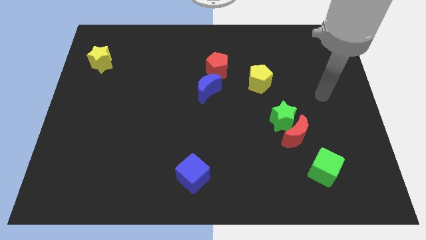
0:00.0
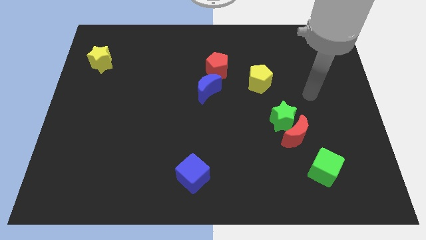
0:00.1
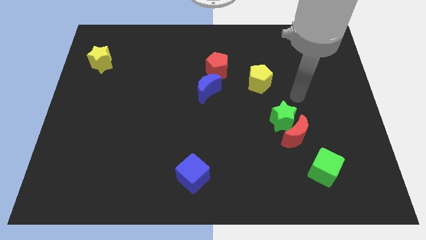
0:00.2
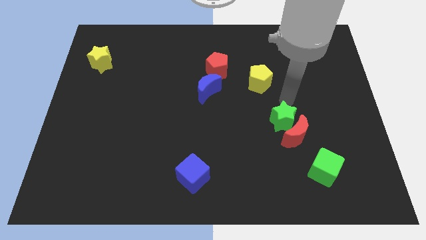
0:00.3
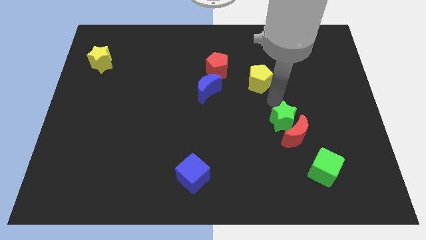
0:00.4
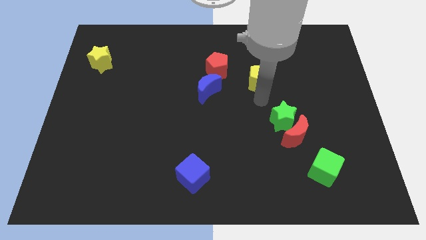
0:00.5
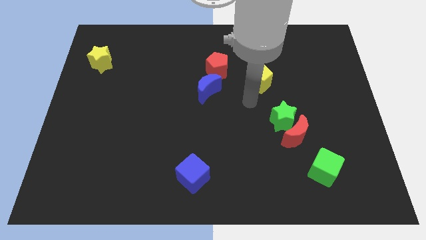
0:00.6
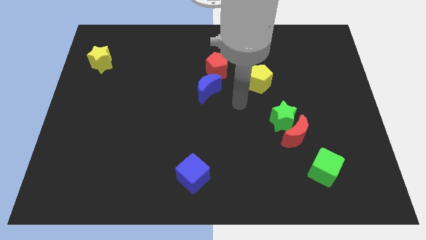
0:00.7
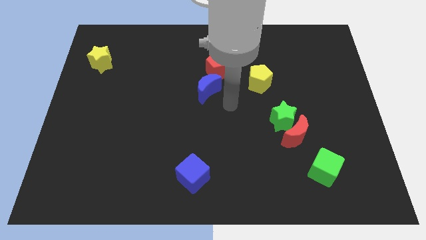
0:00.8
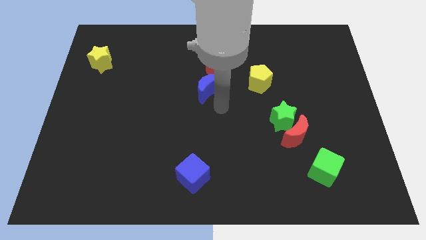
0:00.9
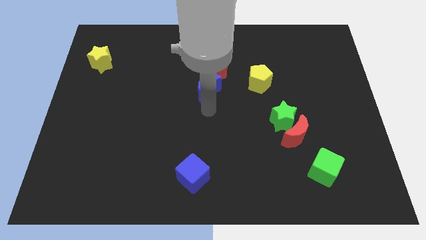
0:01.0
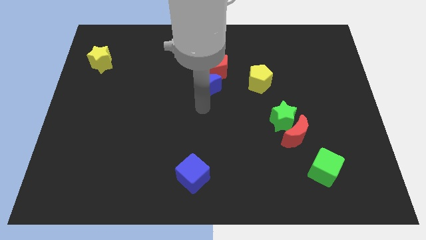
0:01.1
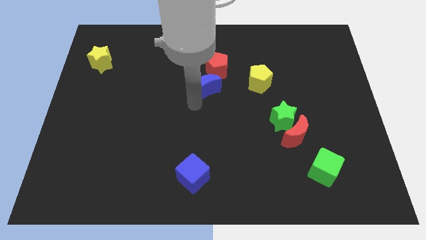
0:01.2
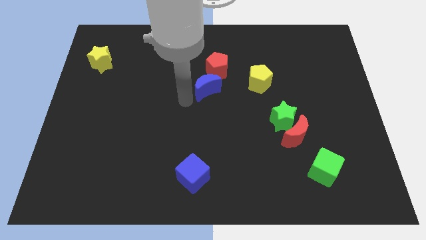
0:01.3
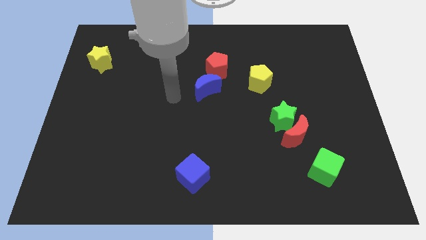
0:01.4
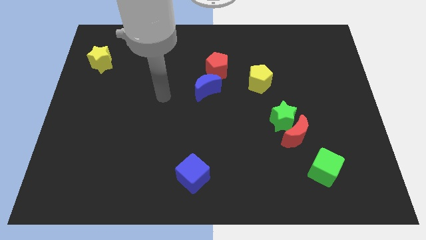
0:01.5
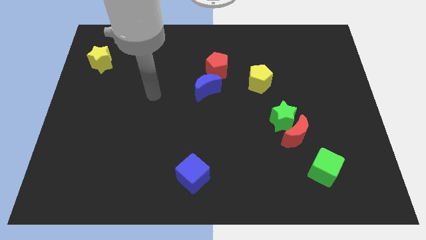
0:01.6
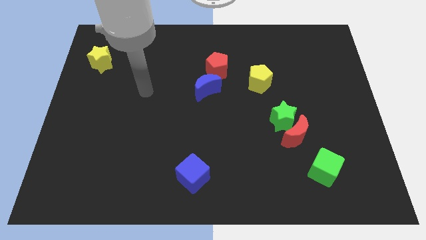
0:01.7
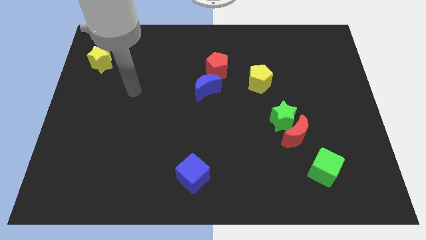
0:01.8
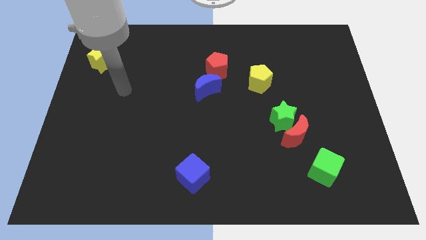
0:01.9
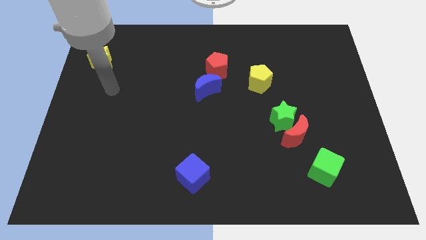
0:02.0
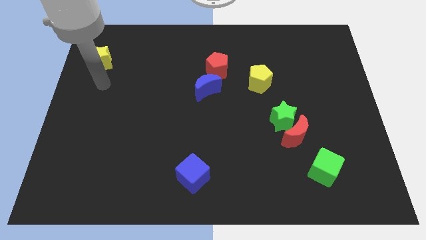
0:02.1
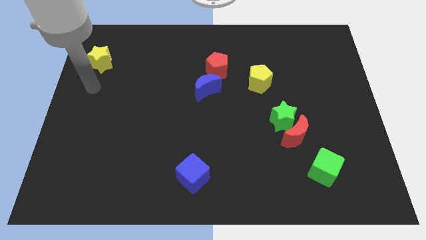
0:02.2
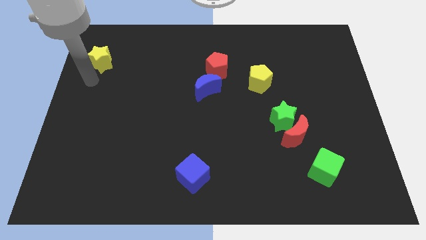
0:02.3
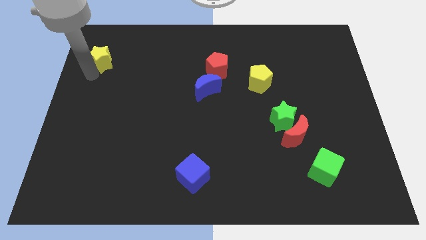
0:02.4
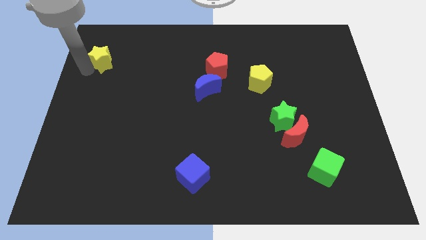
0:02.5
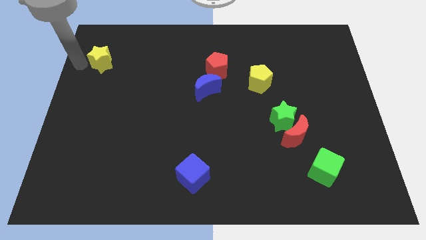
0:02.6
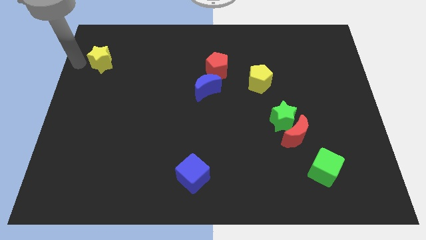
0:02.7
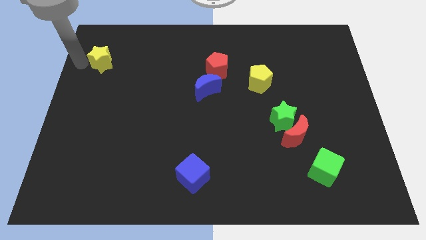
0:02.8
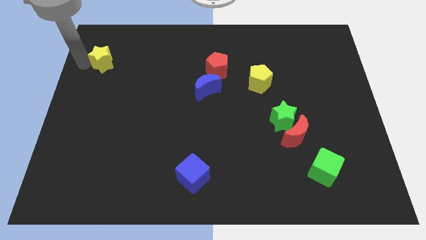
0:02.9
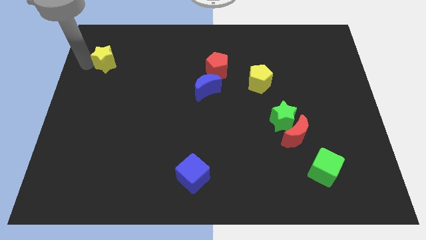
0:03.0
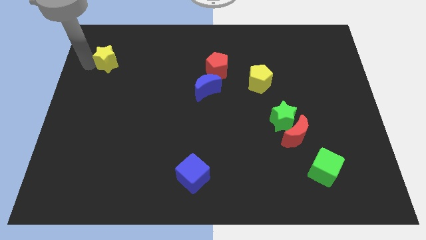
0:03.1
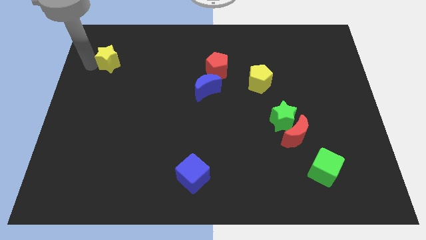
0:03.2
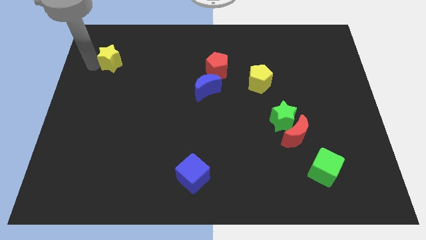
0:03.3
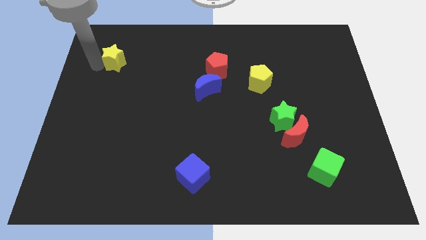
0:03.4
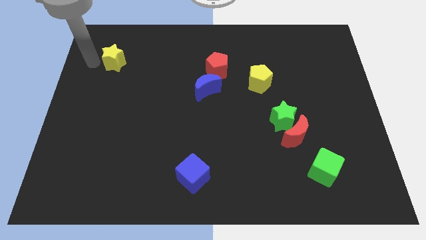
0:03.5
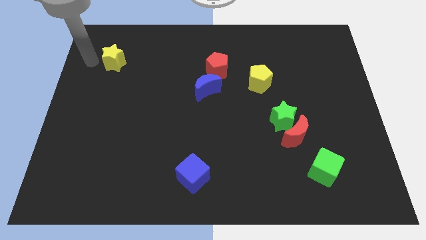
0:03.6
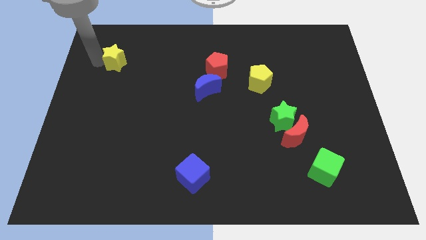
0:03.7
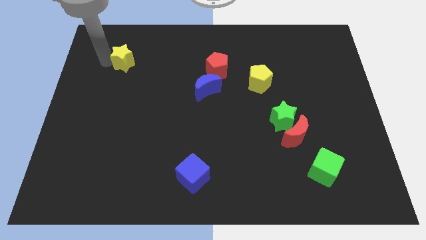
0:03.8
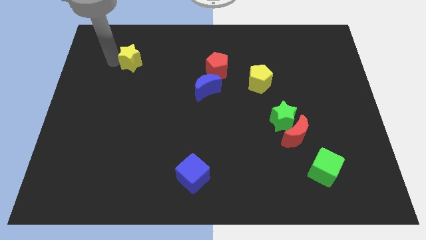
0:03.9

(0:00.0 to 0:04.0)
slightly move the yellow star to the right

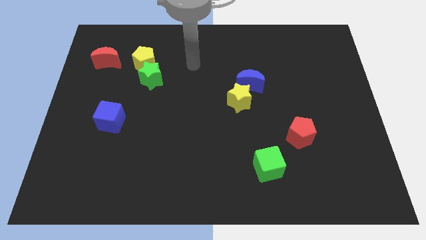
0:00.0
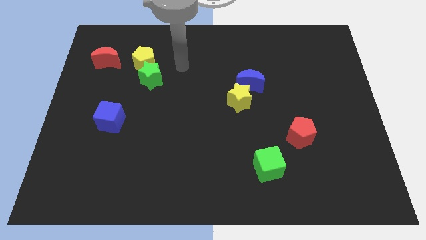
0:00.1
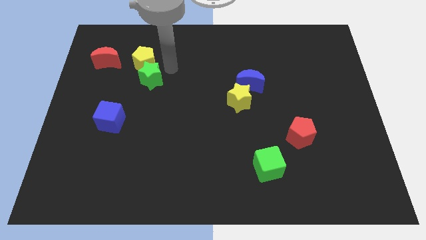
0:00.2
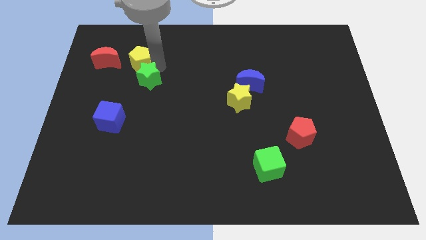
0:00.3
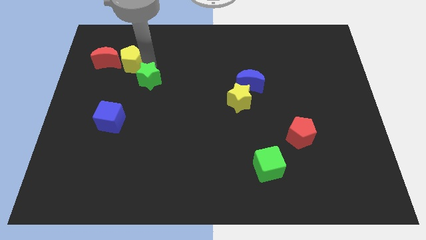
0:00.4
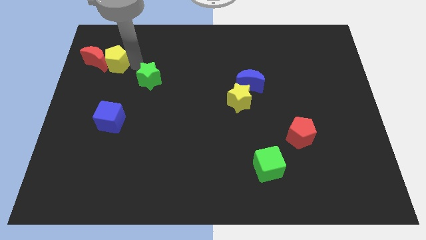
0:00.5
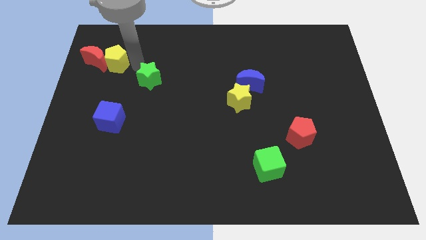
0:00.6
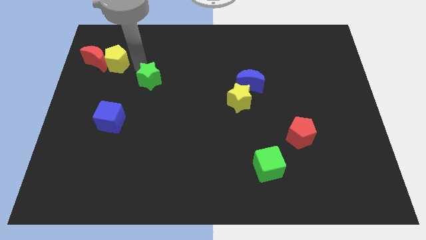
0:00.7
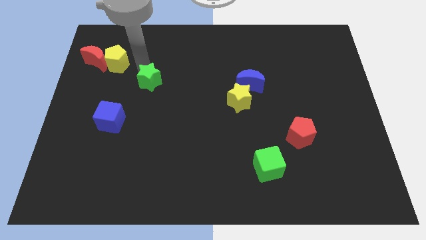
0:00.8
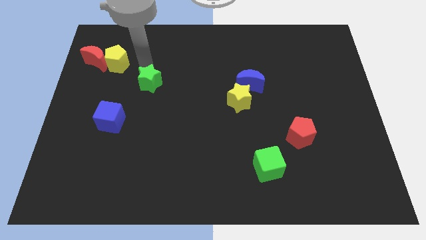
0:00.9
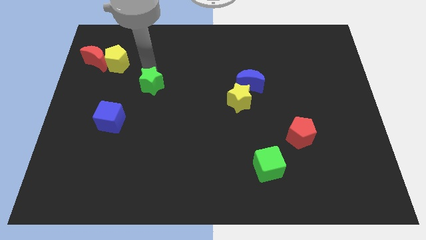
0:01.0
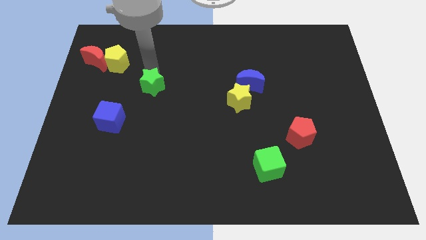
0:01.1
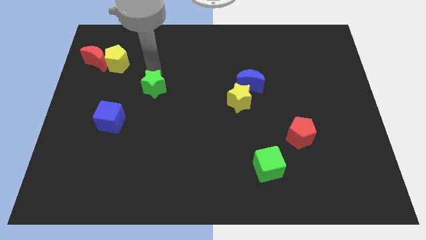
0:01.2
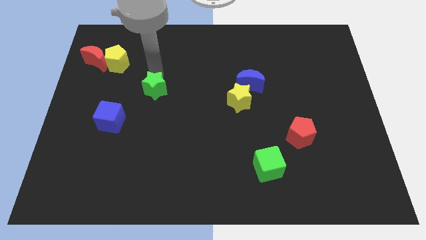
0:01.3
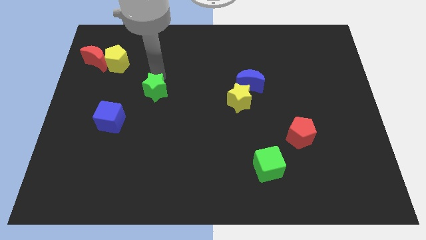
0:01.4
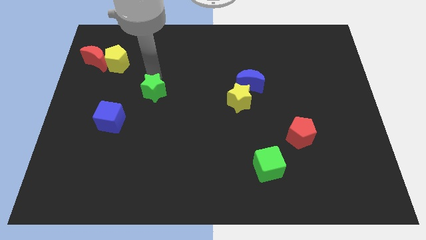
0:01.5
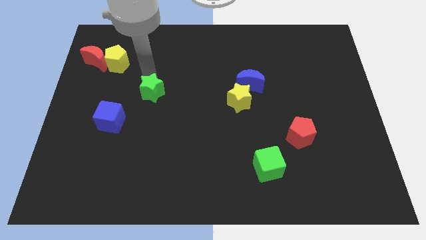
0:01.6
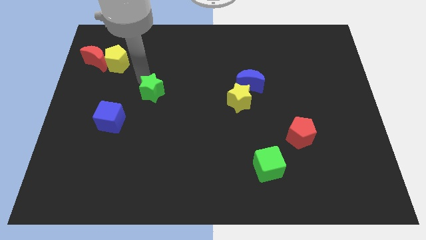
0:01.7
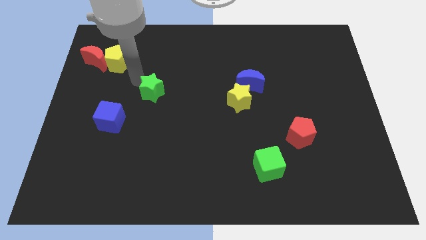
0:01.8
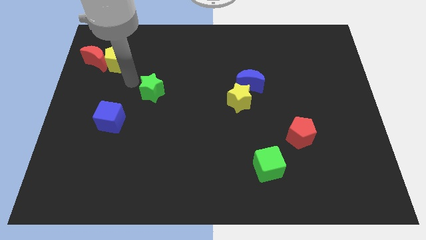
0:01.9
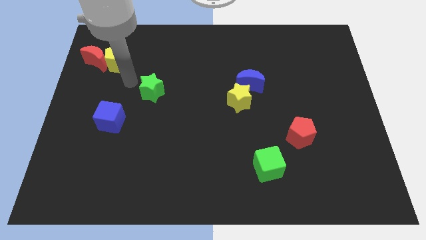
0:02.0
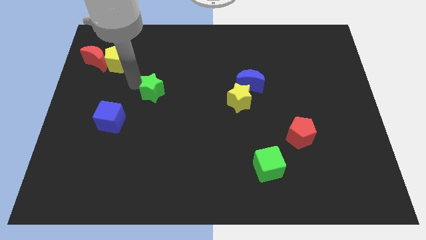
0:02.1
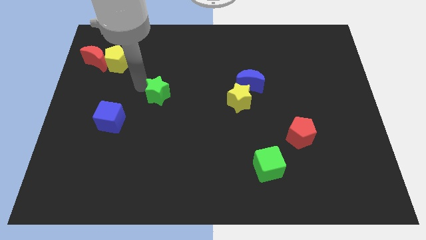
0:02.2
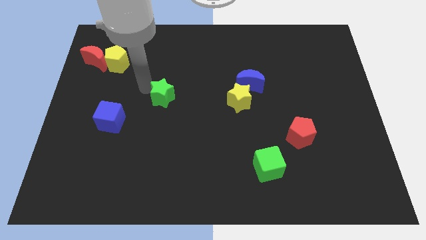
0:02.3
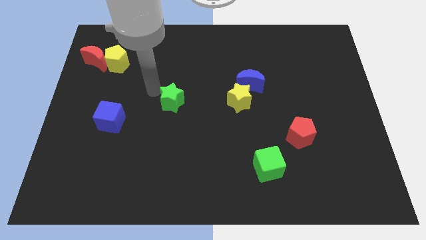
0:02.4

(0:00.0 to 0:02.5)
push the green star down and right slightly

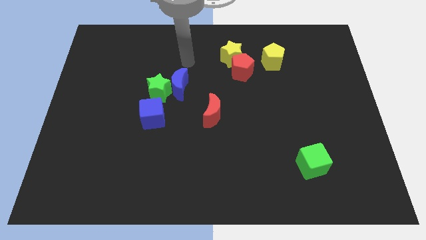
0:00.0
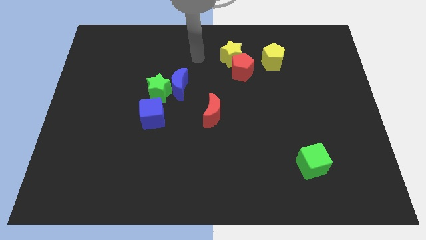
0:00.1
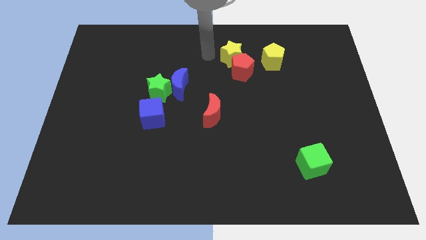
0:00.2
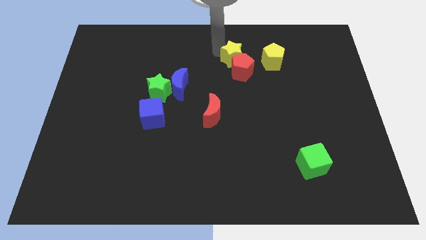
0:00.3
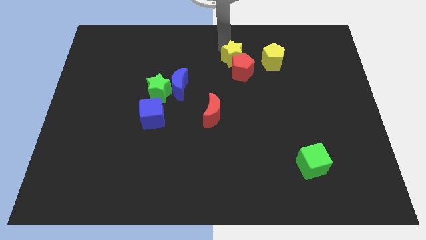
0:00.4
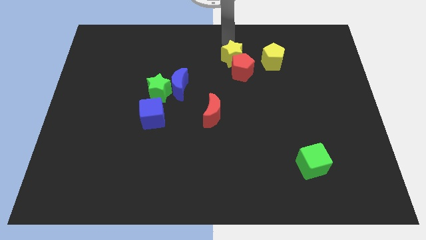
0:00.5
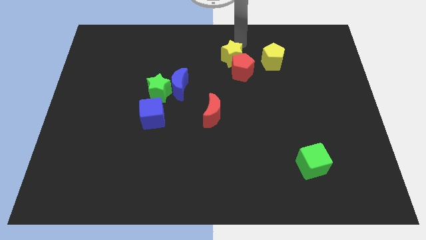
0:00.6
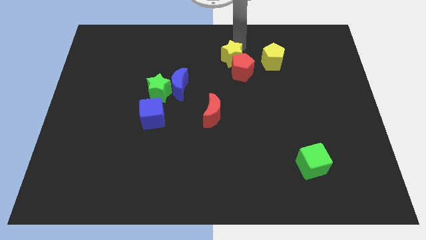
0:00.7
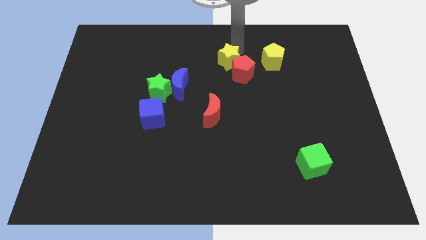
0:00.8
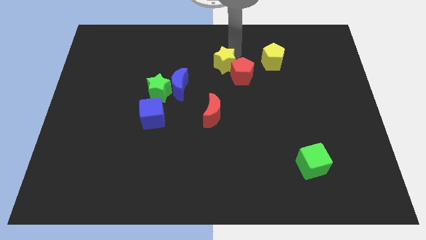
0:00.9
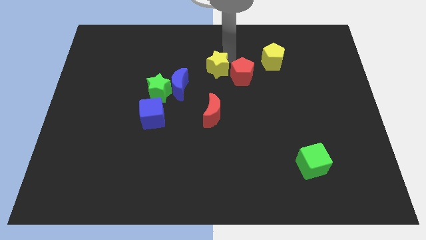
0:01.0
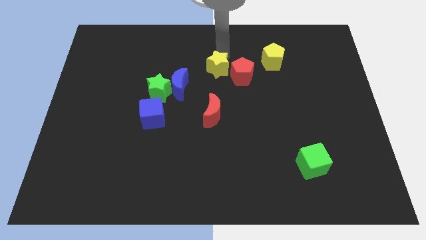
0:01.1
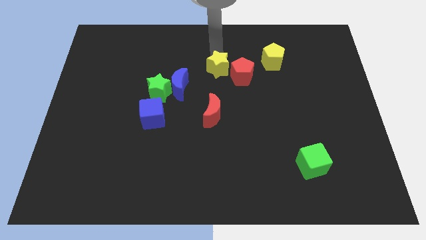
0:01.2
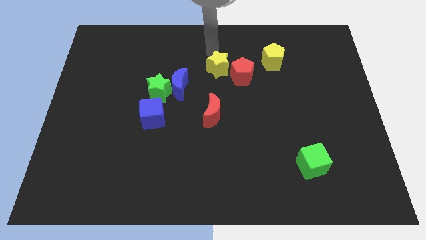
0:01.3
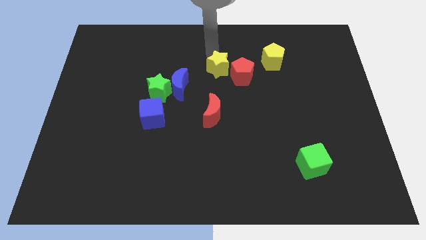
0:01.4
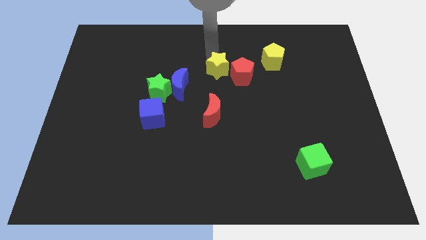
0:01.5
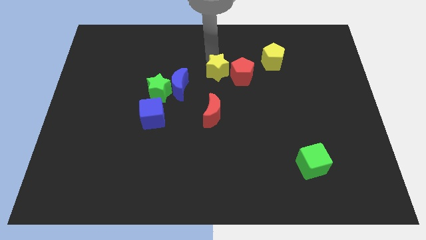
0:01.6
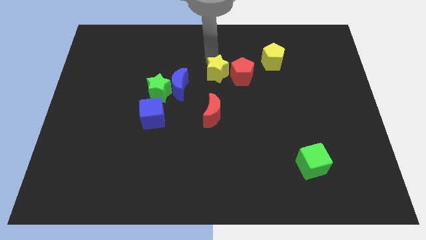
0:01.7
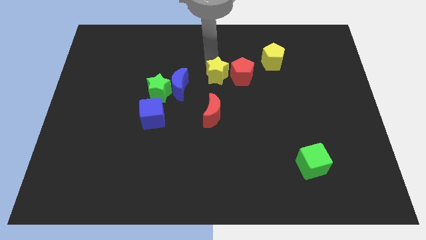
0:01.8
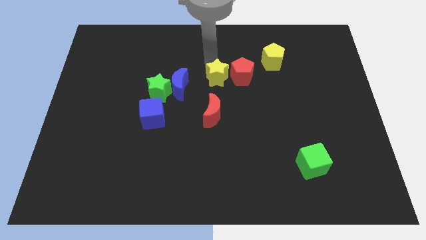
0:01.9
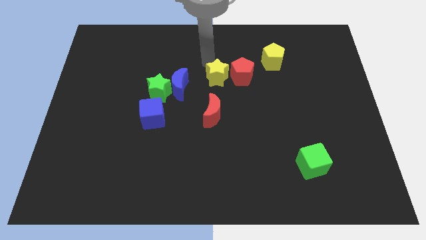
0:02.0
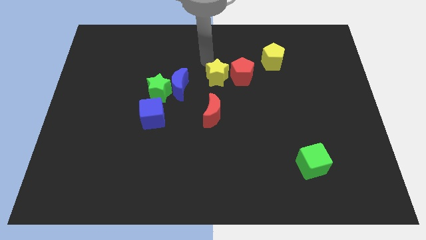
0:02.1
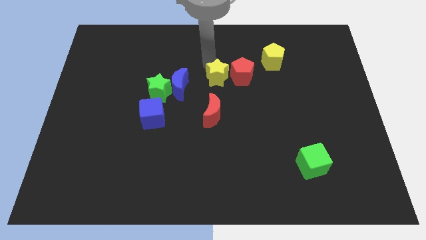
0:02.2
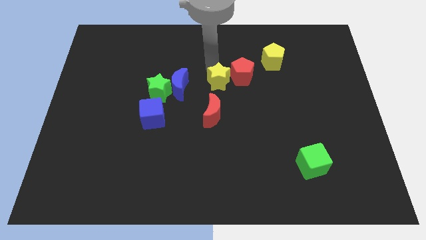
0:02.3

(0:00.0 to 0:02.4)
slightly slide the yellow star downwards
